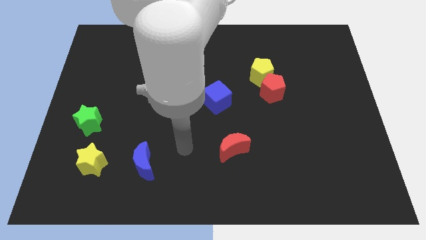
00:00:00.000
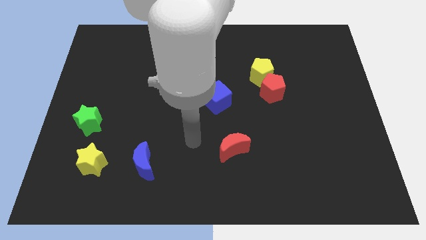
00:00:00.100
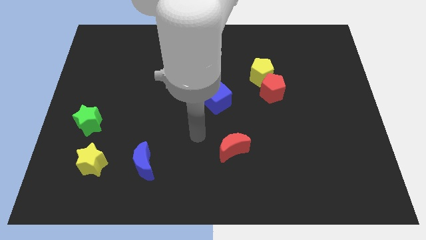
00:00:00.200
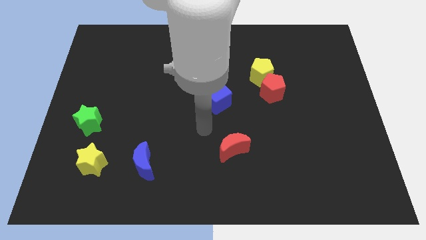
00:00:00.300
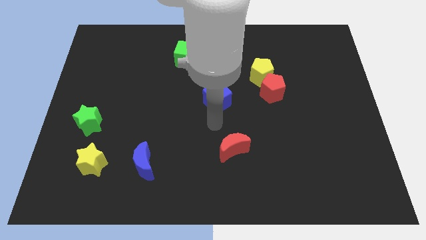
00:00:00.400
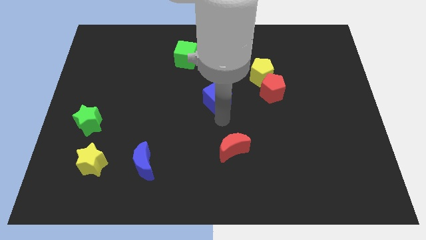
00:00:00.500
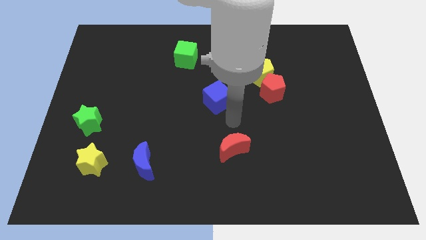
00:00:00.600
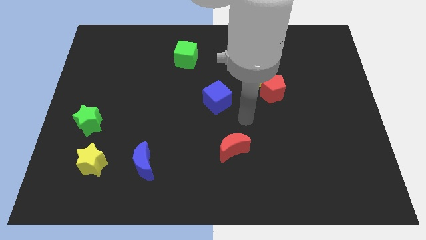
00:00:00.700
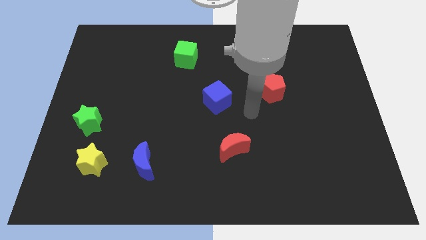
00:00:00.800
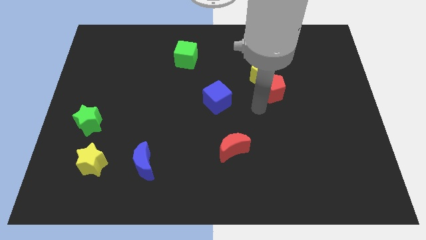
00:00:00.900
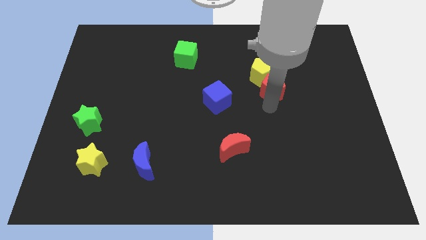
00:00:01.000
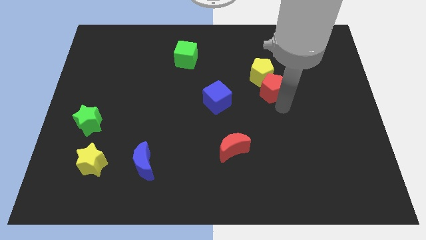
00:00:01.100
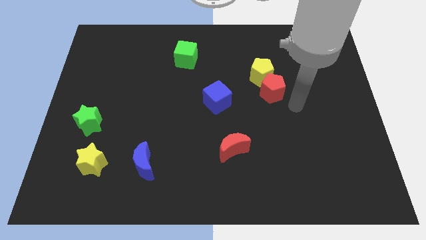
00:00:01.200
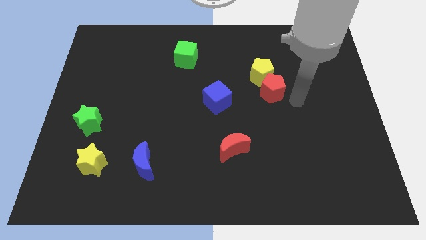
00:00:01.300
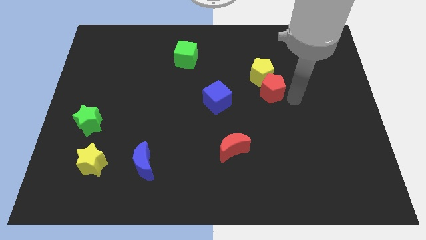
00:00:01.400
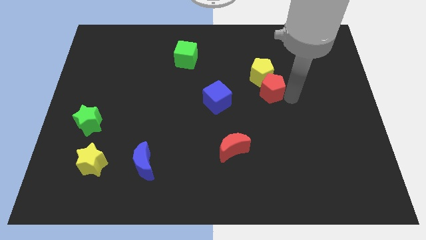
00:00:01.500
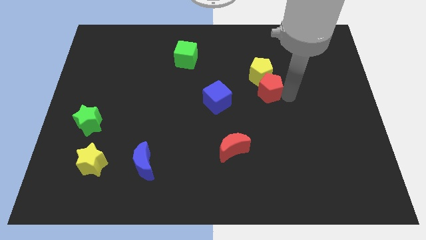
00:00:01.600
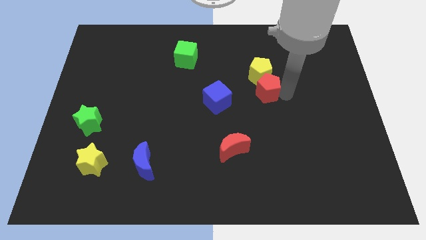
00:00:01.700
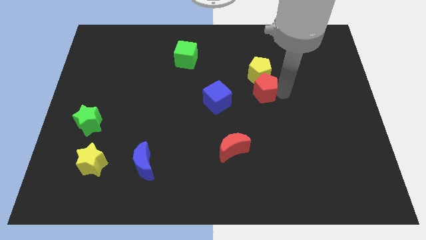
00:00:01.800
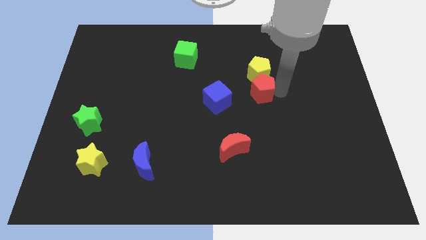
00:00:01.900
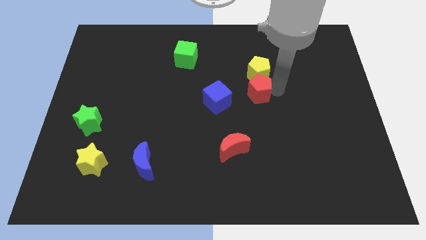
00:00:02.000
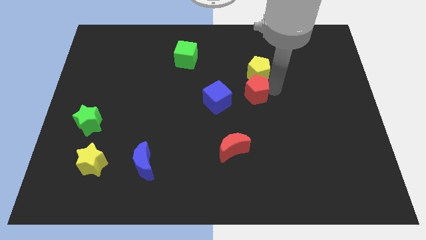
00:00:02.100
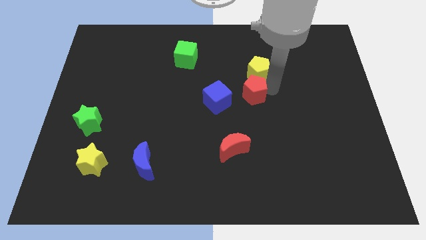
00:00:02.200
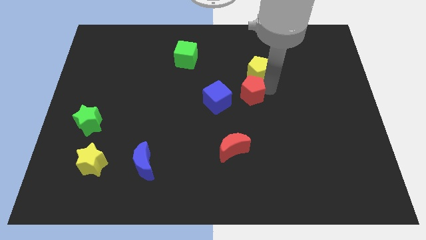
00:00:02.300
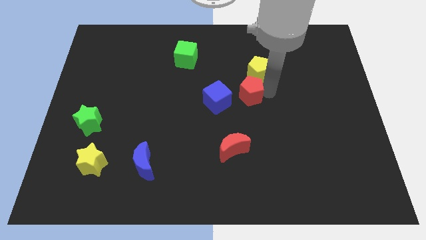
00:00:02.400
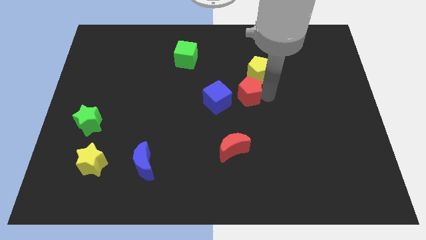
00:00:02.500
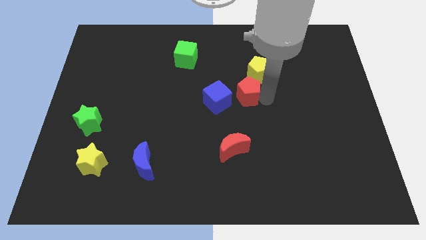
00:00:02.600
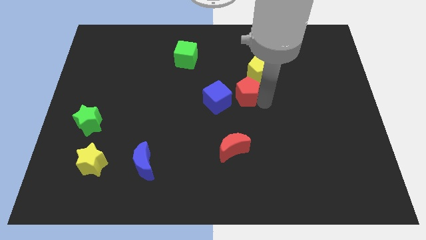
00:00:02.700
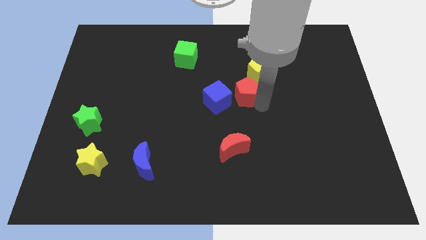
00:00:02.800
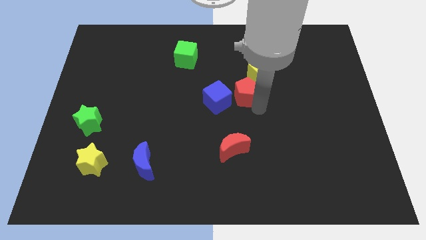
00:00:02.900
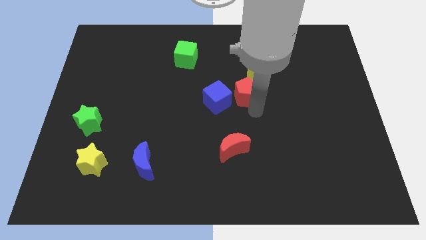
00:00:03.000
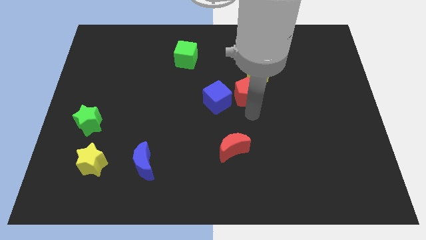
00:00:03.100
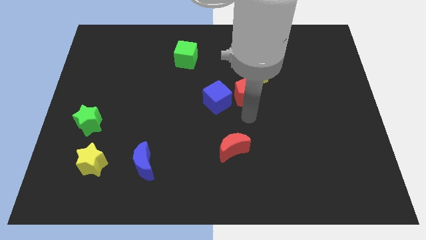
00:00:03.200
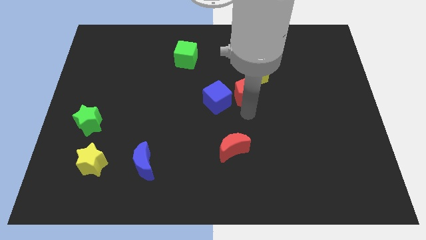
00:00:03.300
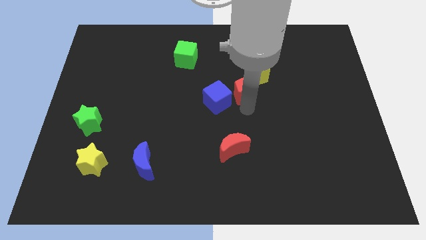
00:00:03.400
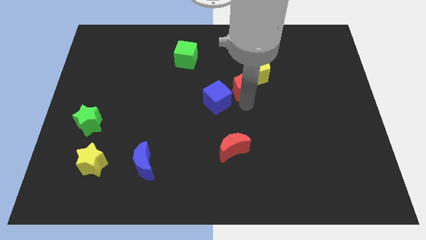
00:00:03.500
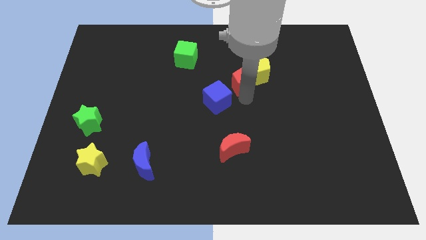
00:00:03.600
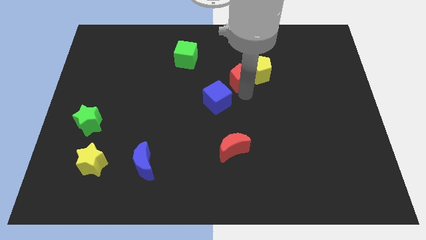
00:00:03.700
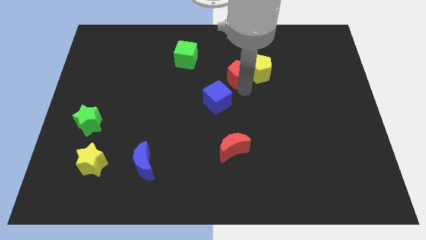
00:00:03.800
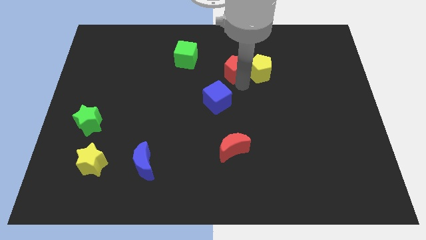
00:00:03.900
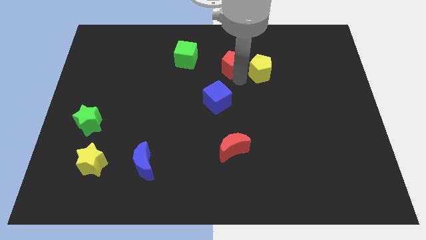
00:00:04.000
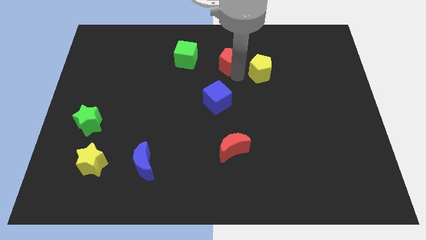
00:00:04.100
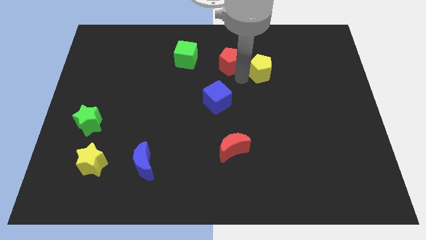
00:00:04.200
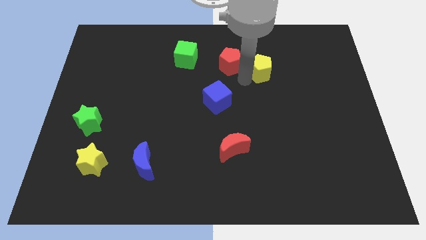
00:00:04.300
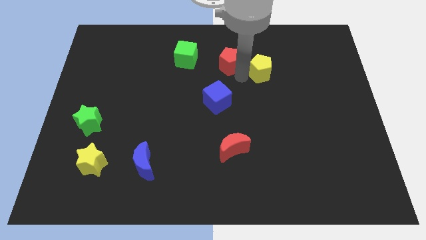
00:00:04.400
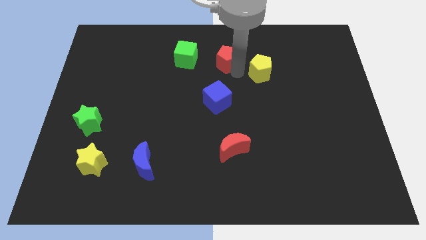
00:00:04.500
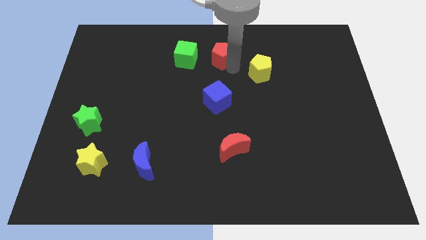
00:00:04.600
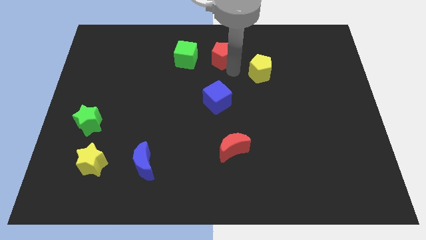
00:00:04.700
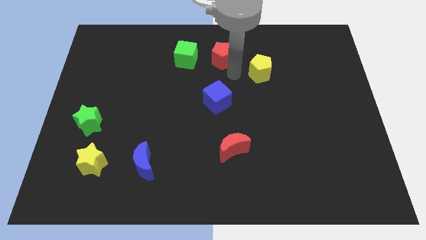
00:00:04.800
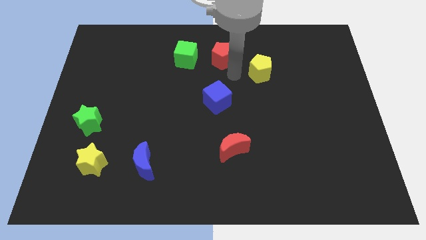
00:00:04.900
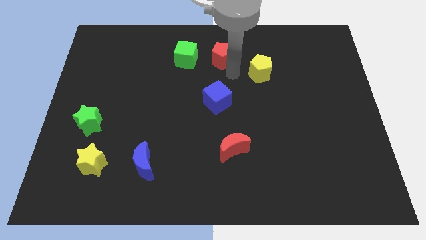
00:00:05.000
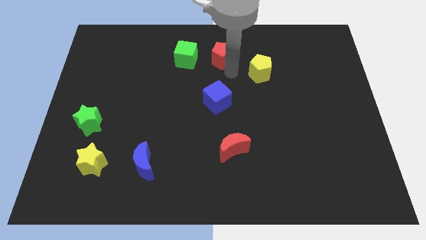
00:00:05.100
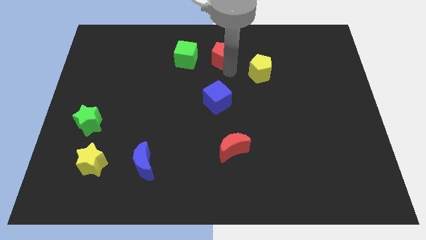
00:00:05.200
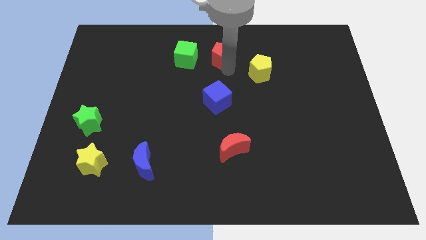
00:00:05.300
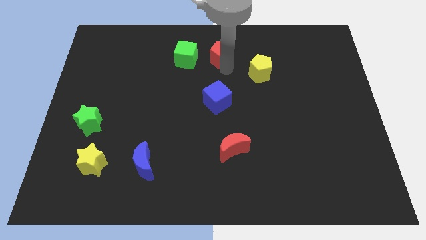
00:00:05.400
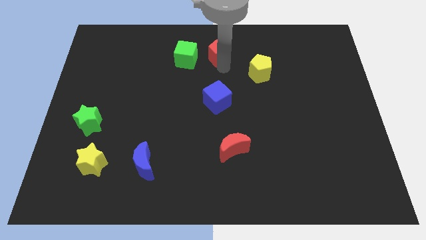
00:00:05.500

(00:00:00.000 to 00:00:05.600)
slide the red pentagon to the top side

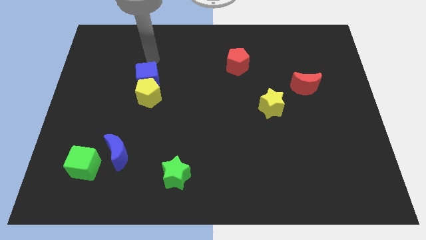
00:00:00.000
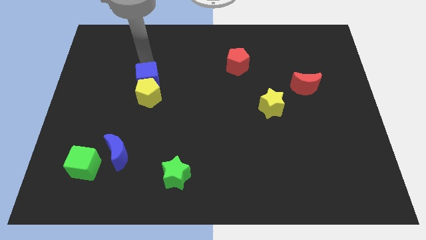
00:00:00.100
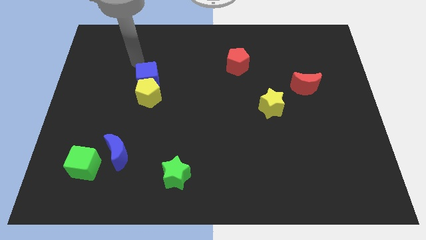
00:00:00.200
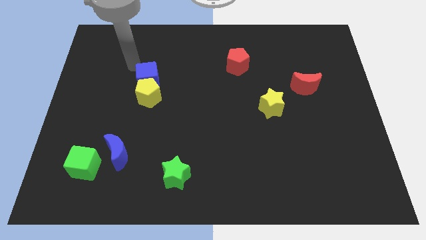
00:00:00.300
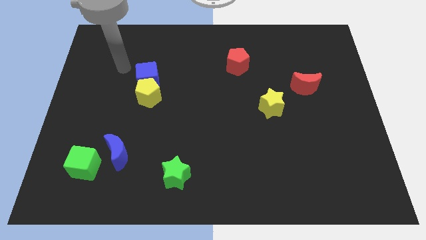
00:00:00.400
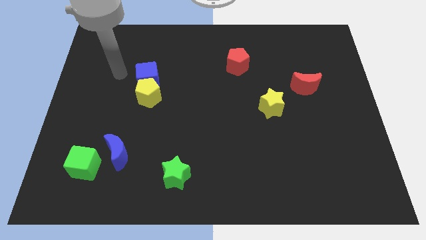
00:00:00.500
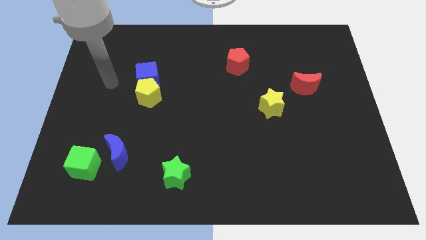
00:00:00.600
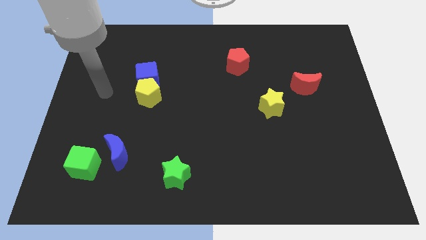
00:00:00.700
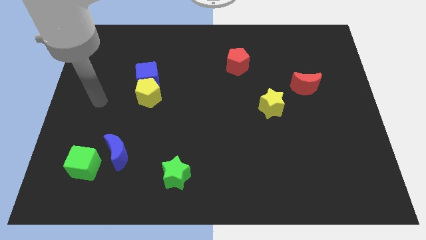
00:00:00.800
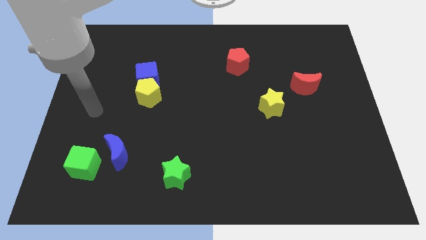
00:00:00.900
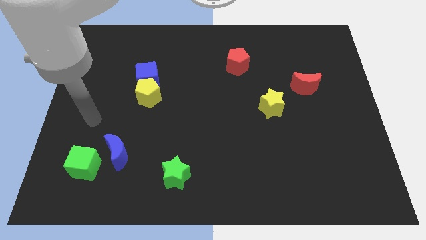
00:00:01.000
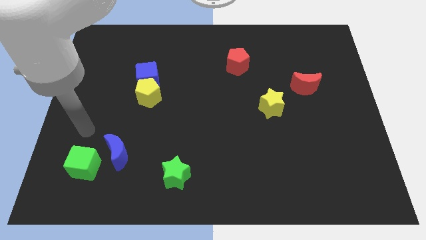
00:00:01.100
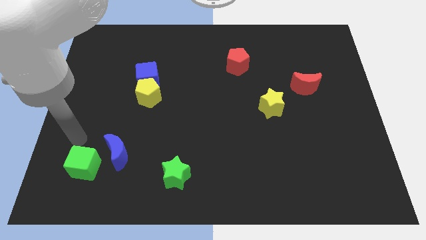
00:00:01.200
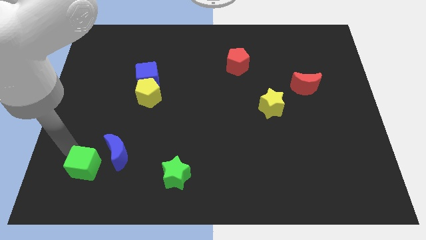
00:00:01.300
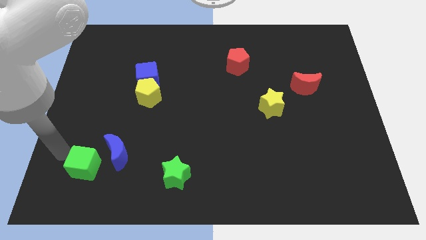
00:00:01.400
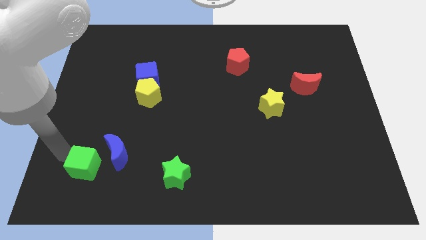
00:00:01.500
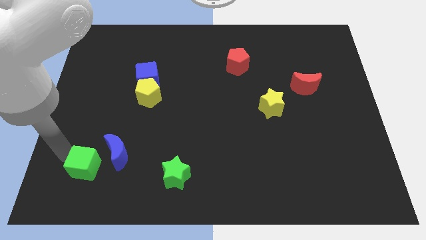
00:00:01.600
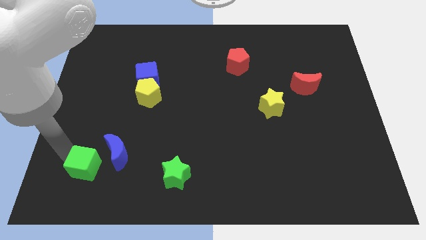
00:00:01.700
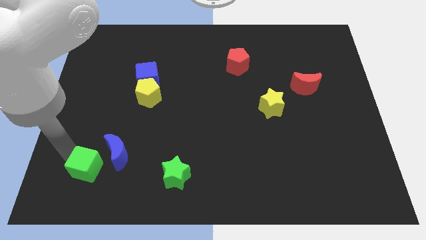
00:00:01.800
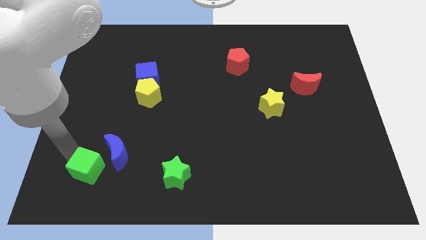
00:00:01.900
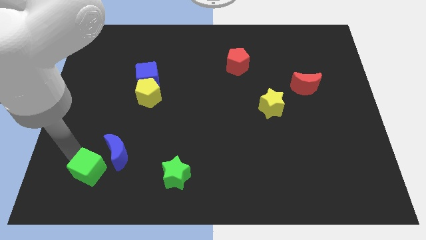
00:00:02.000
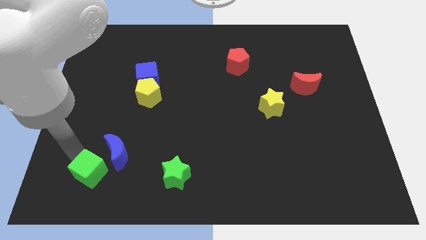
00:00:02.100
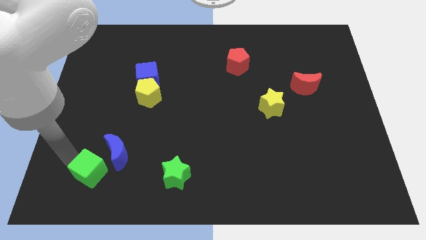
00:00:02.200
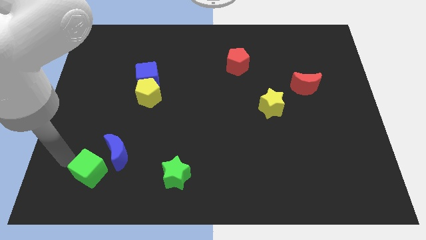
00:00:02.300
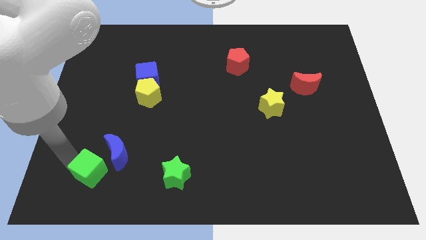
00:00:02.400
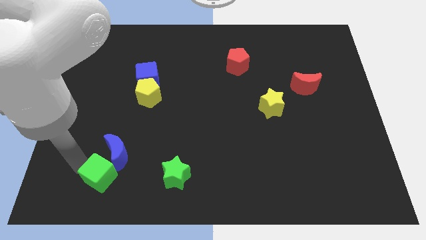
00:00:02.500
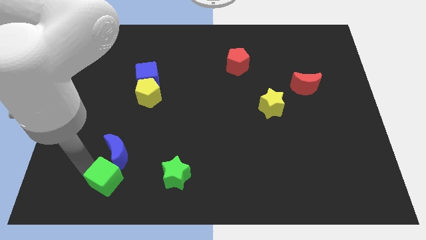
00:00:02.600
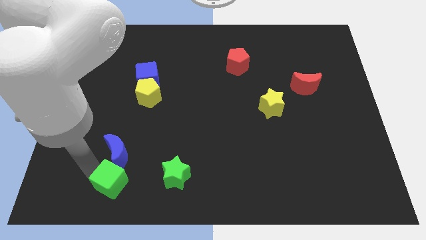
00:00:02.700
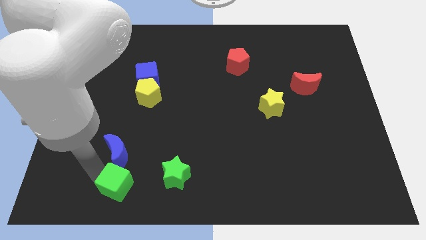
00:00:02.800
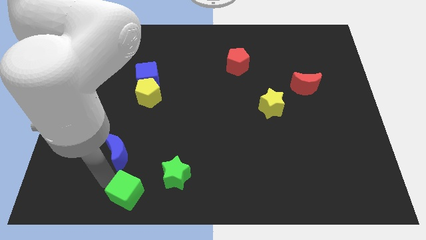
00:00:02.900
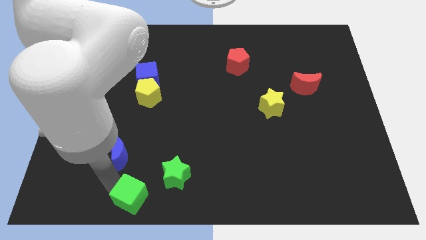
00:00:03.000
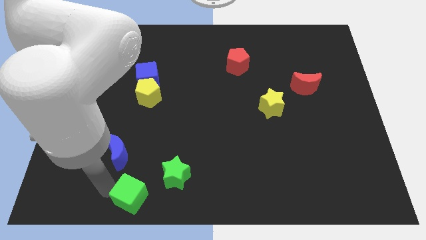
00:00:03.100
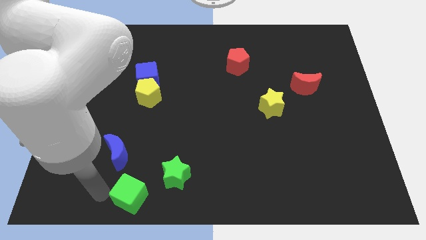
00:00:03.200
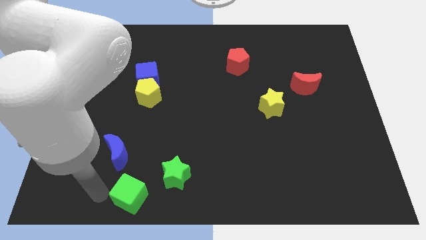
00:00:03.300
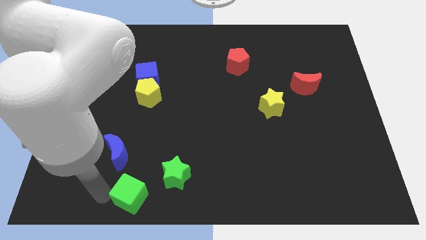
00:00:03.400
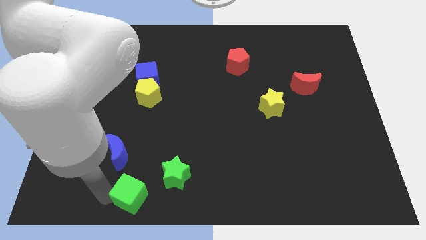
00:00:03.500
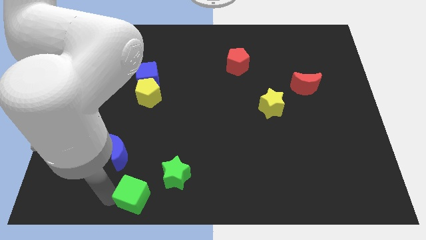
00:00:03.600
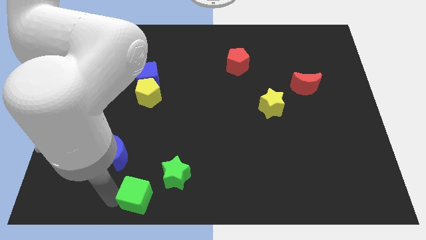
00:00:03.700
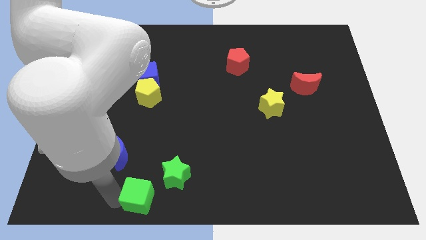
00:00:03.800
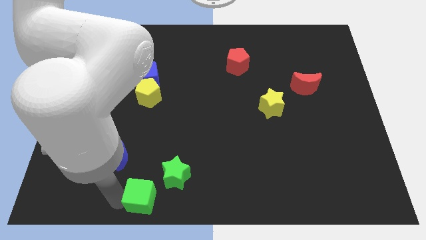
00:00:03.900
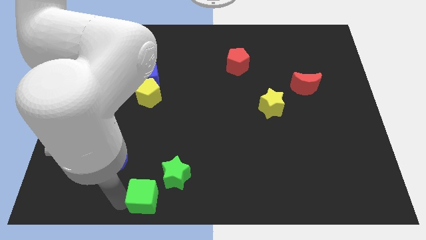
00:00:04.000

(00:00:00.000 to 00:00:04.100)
push the green cube to the bottom side
